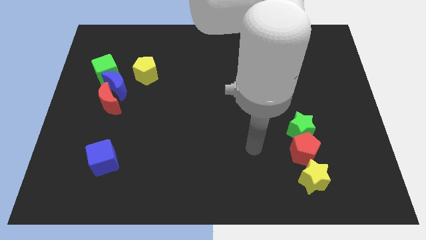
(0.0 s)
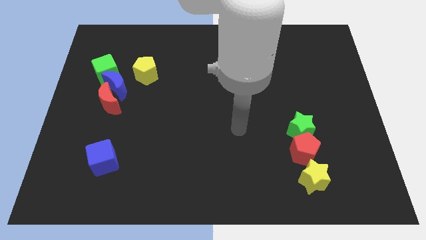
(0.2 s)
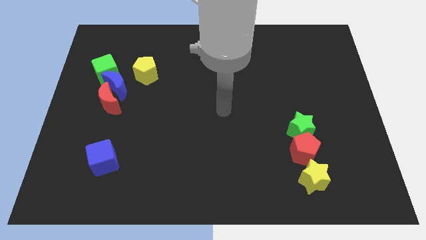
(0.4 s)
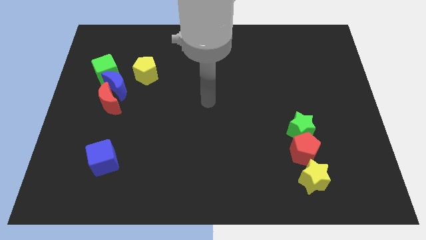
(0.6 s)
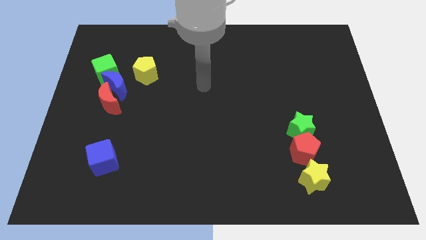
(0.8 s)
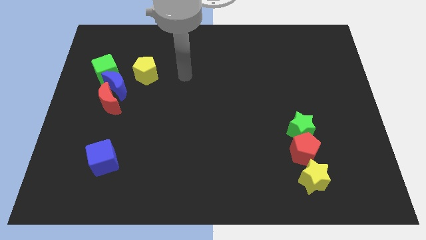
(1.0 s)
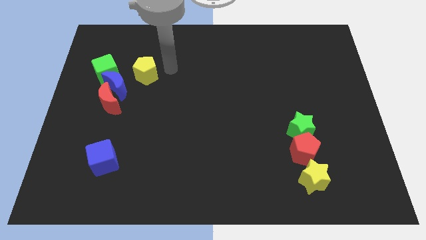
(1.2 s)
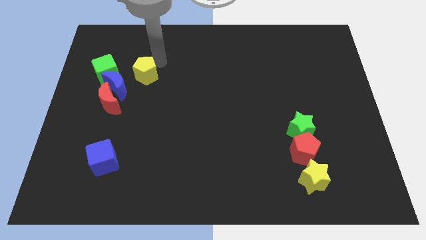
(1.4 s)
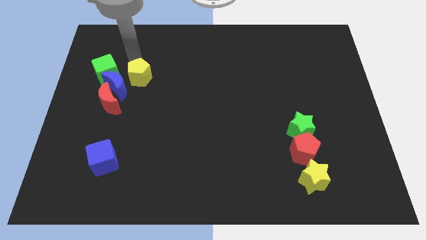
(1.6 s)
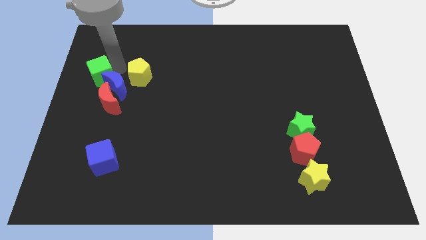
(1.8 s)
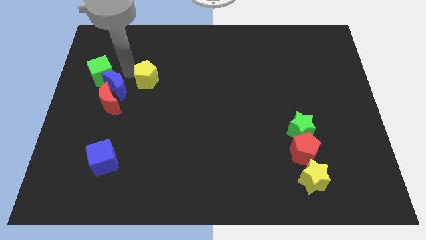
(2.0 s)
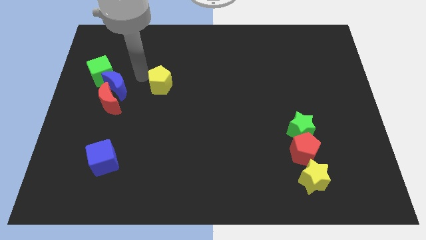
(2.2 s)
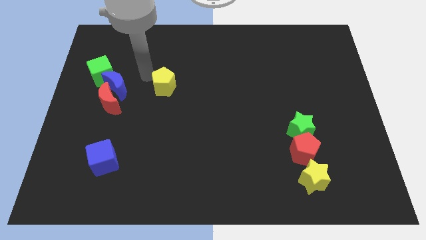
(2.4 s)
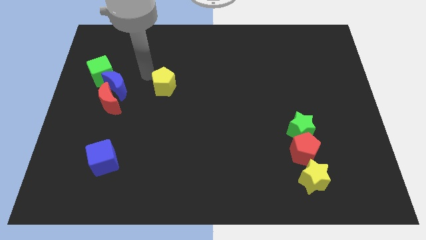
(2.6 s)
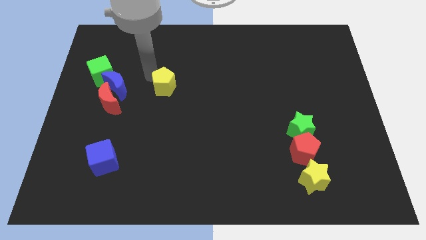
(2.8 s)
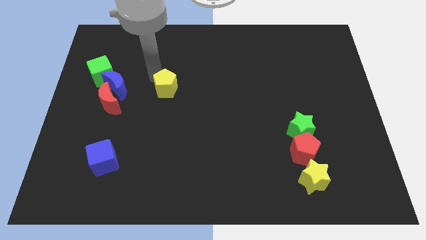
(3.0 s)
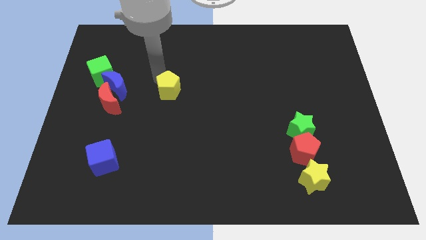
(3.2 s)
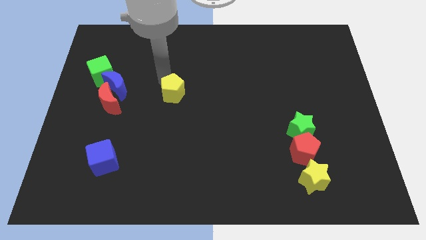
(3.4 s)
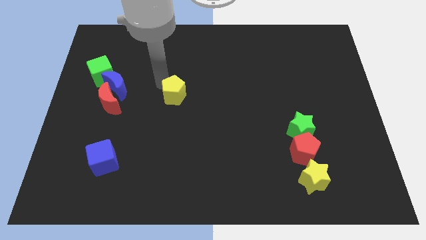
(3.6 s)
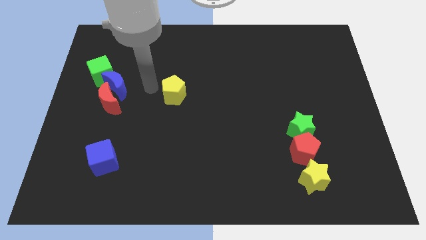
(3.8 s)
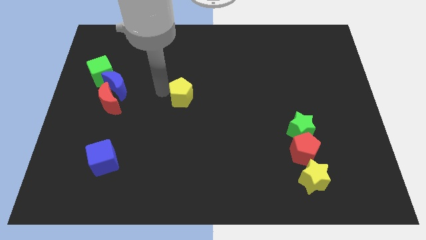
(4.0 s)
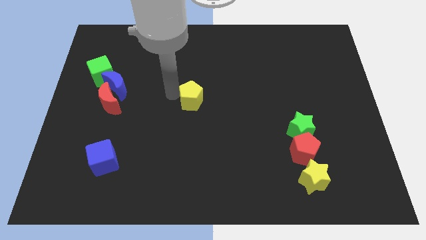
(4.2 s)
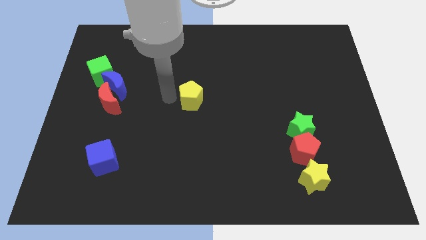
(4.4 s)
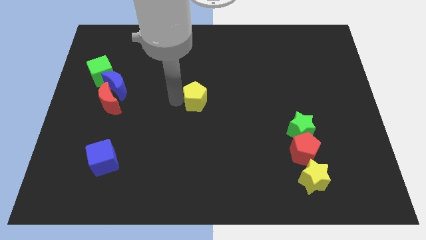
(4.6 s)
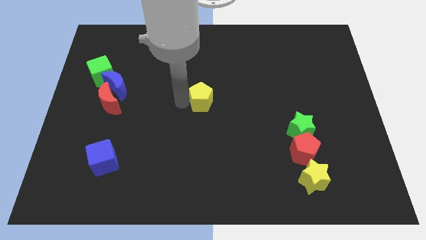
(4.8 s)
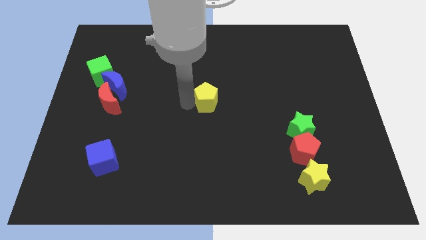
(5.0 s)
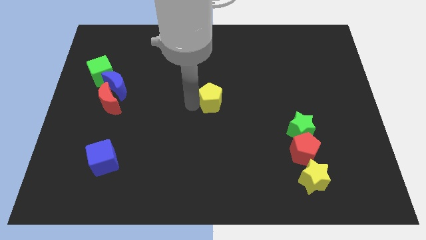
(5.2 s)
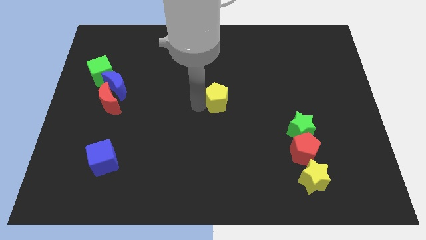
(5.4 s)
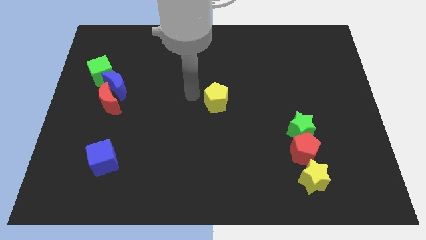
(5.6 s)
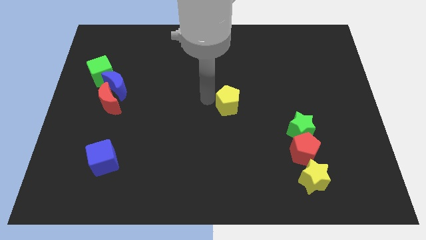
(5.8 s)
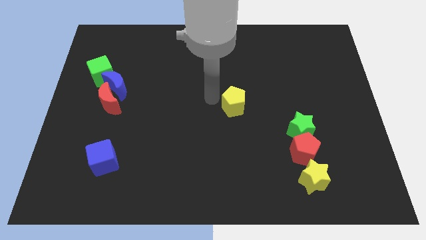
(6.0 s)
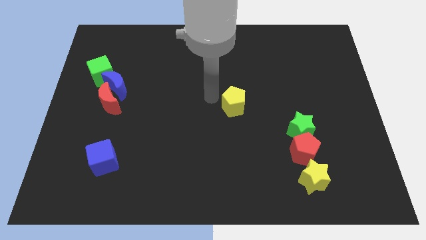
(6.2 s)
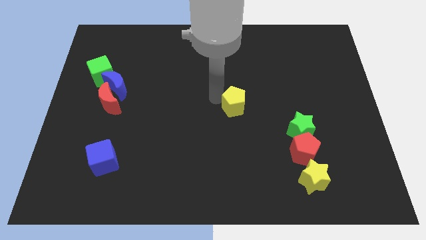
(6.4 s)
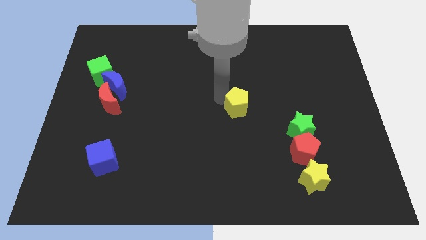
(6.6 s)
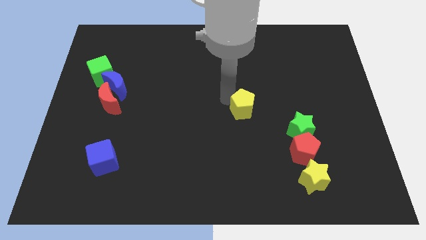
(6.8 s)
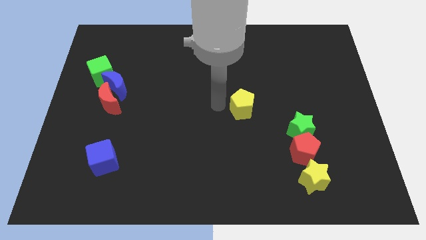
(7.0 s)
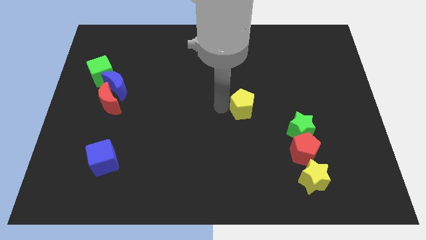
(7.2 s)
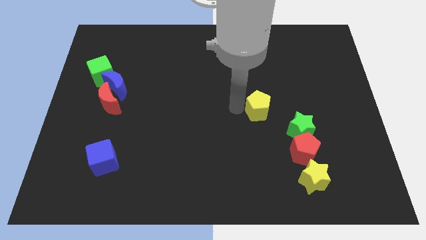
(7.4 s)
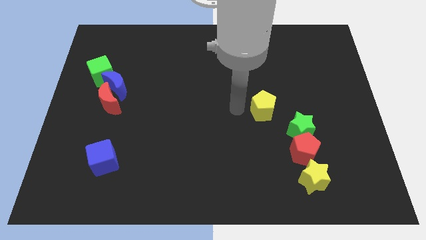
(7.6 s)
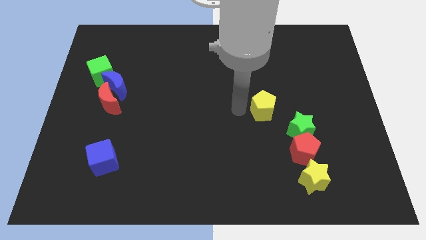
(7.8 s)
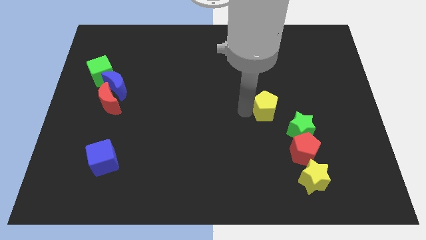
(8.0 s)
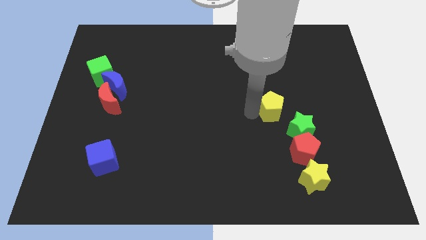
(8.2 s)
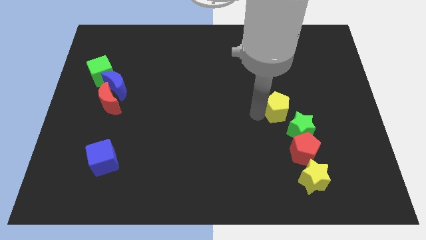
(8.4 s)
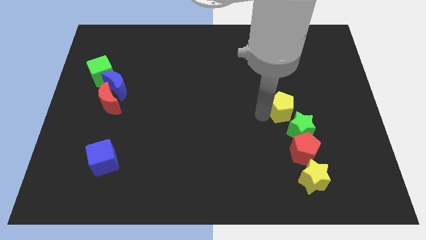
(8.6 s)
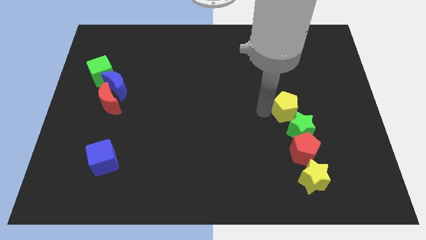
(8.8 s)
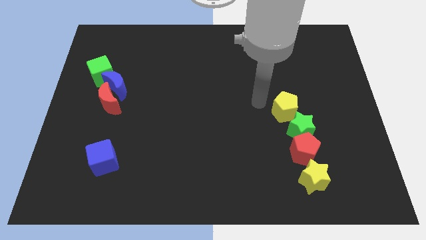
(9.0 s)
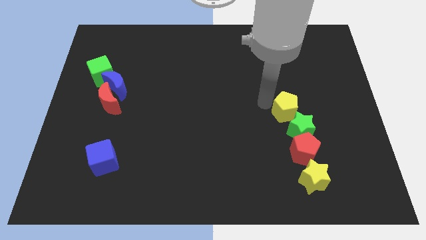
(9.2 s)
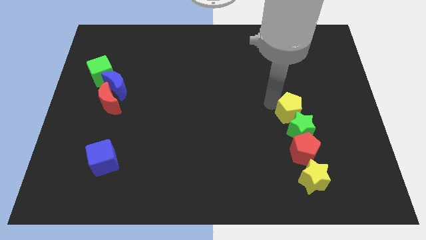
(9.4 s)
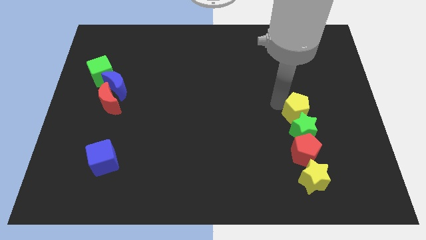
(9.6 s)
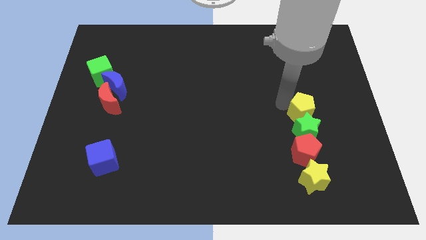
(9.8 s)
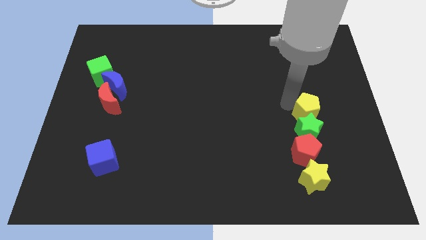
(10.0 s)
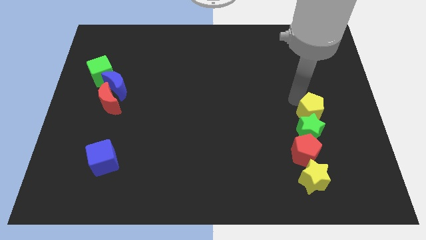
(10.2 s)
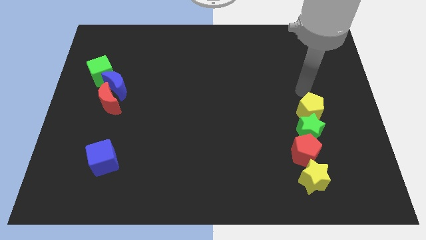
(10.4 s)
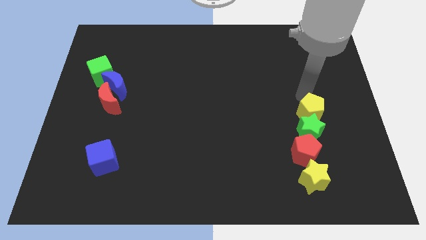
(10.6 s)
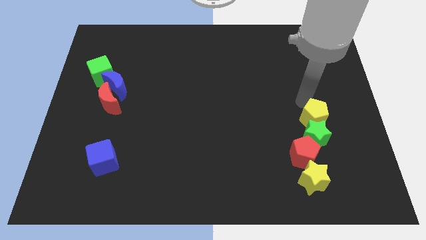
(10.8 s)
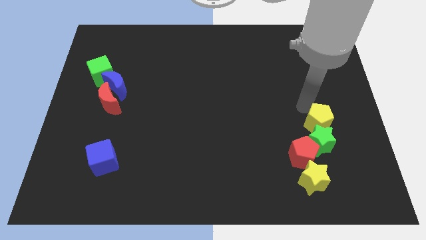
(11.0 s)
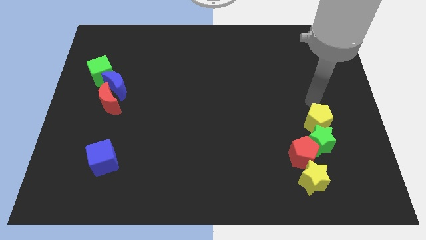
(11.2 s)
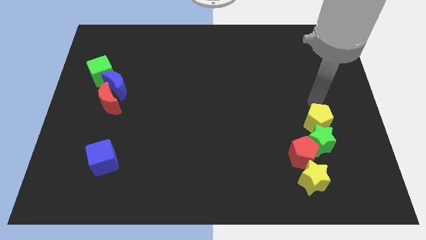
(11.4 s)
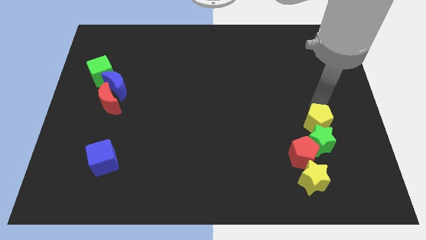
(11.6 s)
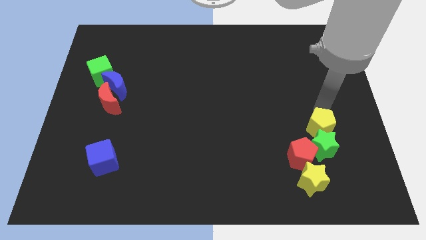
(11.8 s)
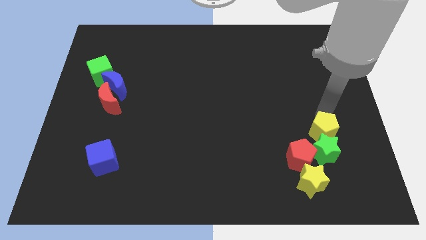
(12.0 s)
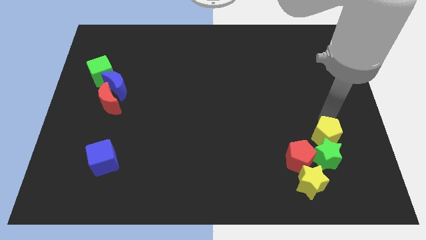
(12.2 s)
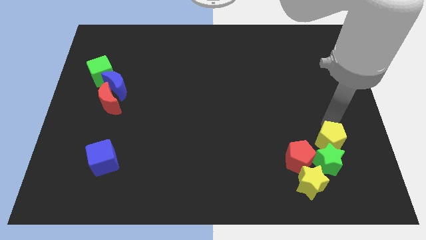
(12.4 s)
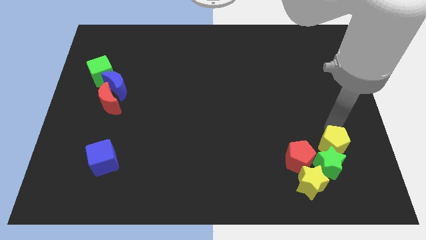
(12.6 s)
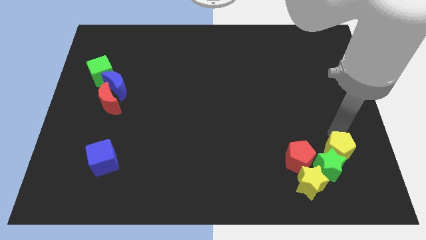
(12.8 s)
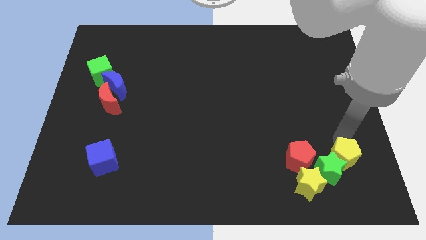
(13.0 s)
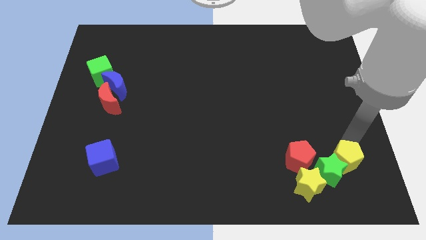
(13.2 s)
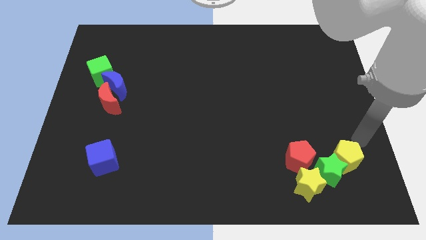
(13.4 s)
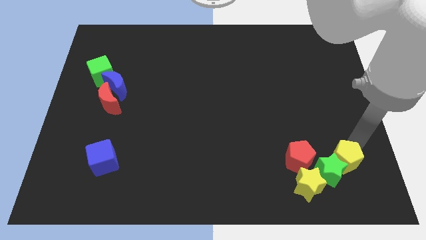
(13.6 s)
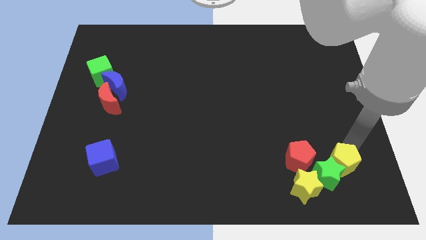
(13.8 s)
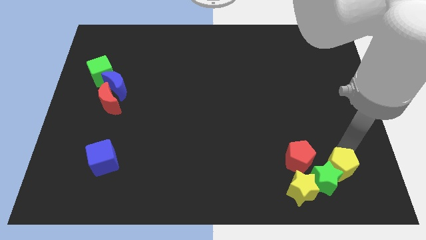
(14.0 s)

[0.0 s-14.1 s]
slide the yellow pentagon diagonally down and to the right of the red pentagon
